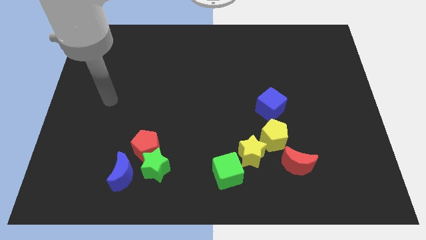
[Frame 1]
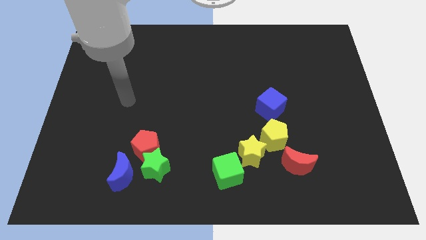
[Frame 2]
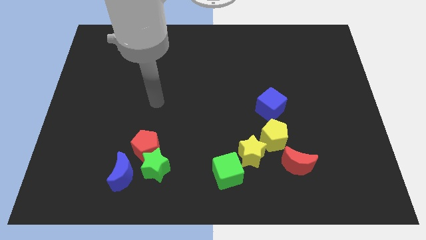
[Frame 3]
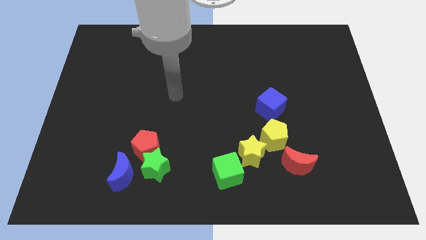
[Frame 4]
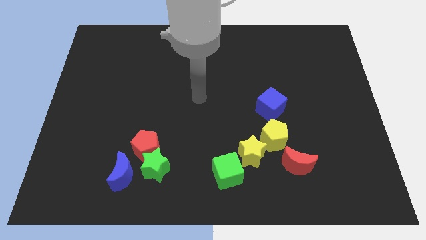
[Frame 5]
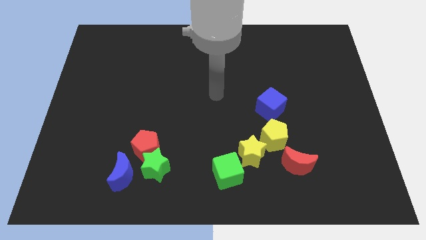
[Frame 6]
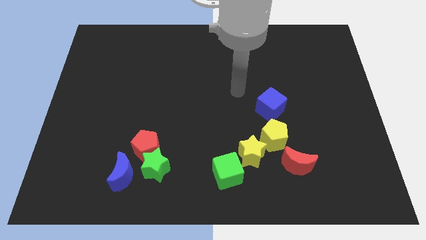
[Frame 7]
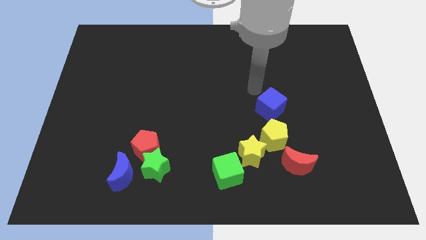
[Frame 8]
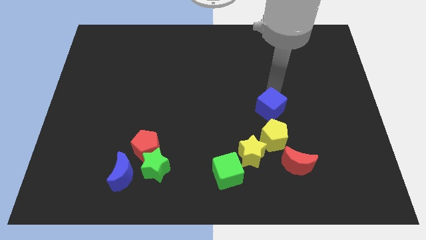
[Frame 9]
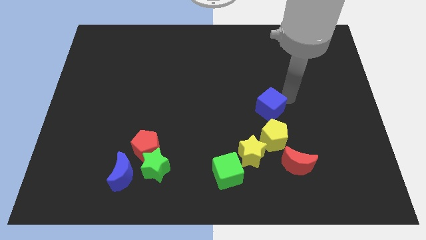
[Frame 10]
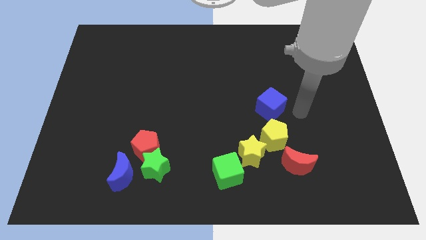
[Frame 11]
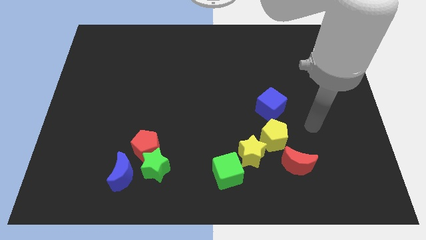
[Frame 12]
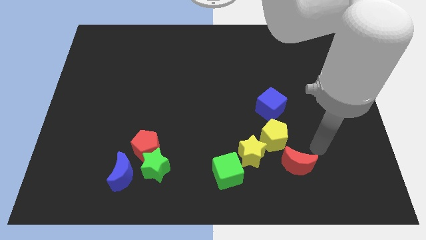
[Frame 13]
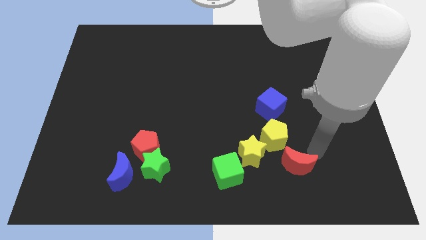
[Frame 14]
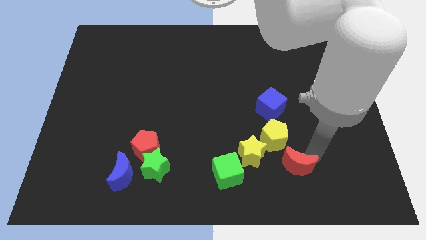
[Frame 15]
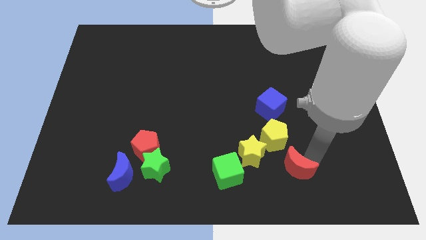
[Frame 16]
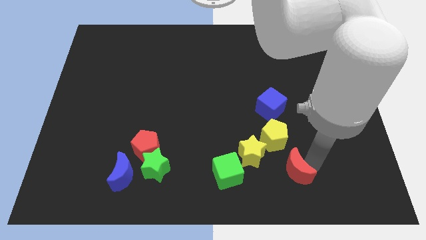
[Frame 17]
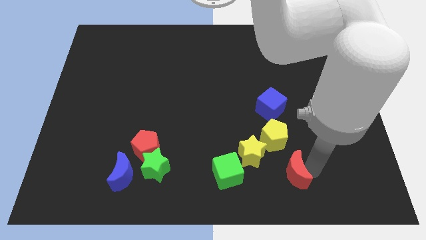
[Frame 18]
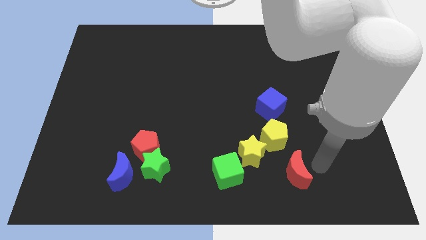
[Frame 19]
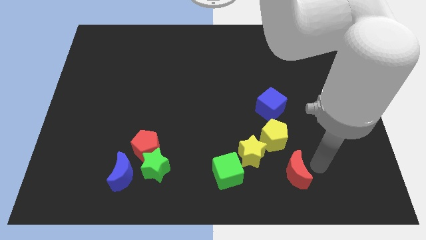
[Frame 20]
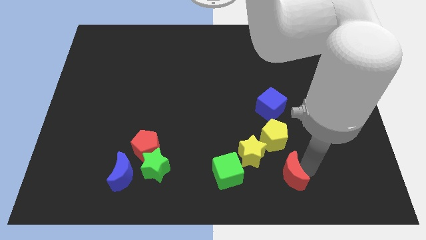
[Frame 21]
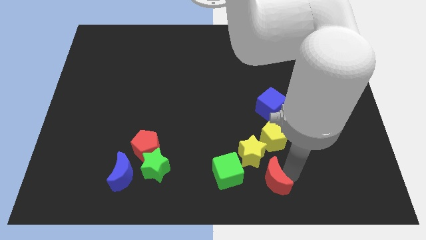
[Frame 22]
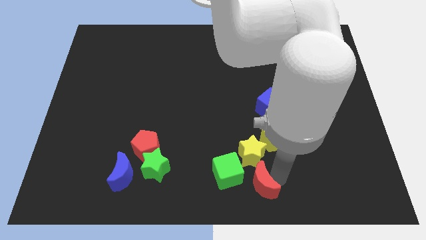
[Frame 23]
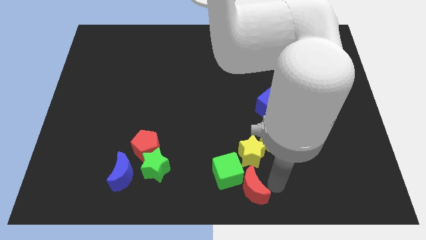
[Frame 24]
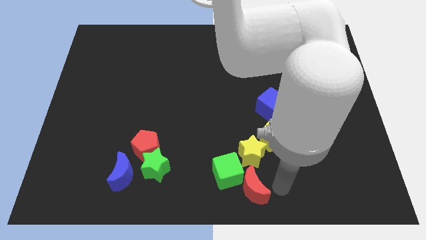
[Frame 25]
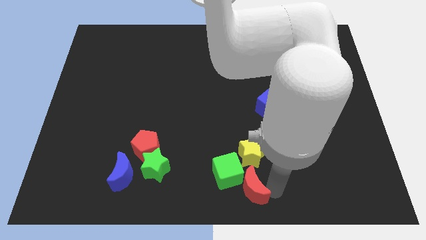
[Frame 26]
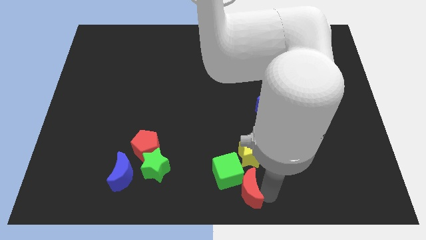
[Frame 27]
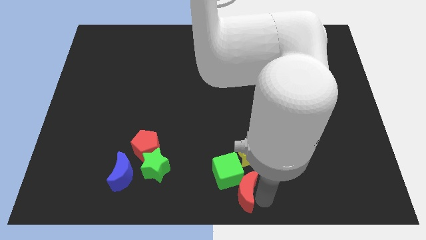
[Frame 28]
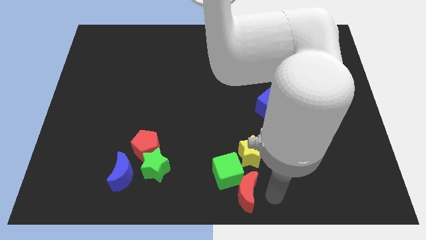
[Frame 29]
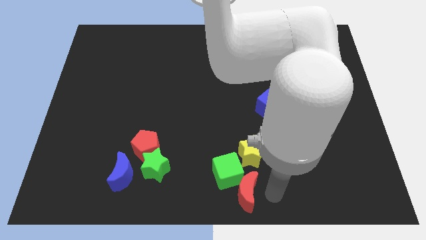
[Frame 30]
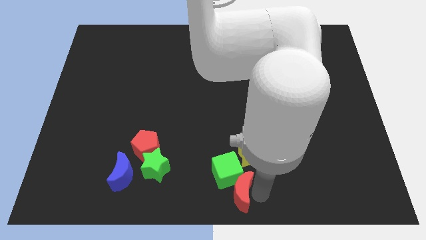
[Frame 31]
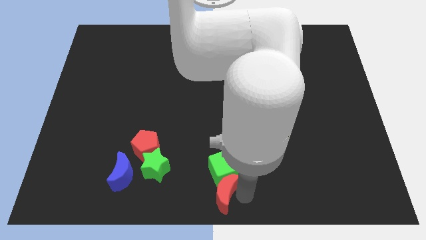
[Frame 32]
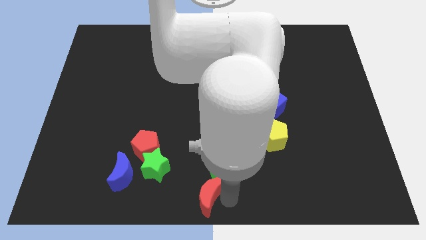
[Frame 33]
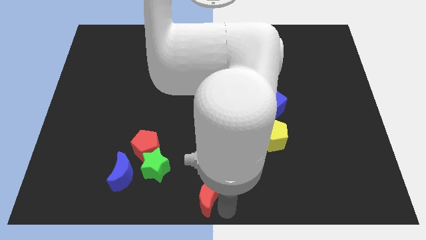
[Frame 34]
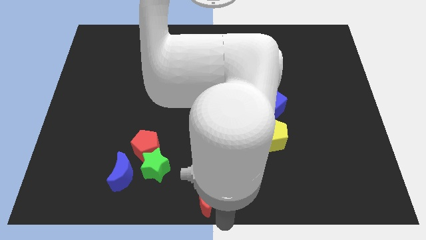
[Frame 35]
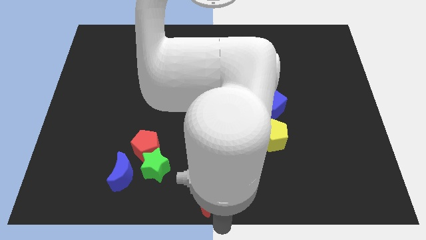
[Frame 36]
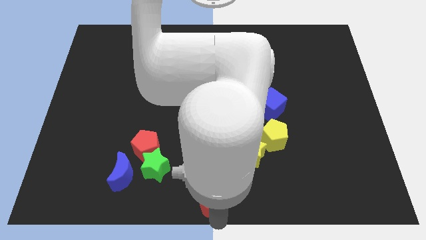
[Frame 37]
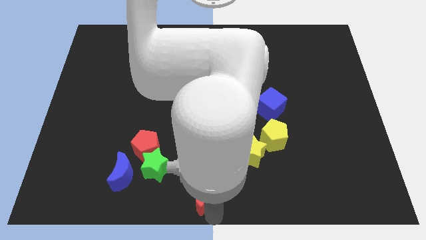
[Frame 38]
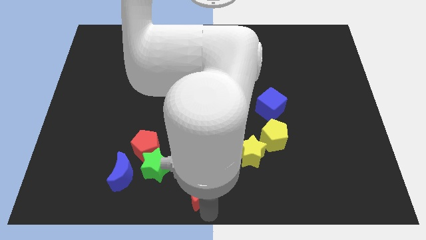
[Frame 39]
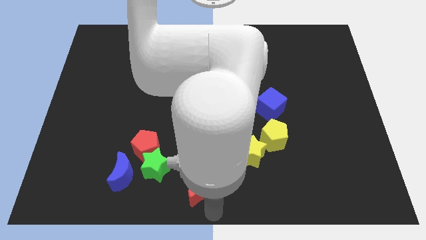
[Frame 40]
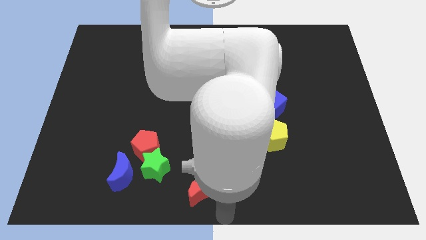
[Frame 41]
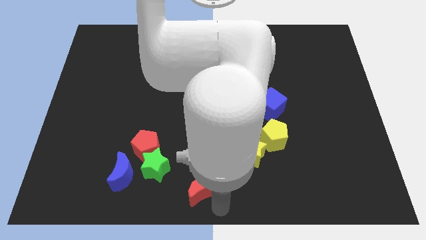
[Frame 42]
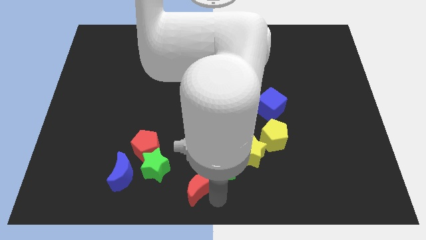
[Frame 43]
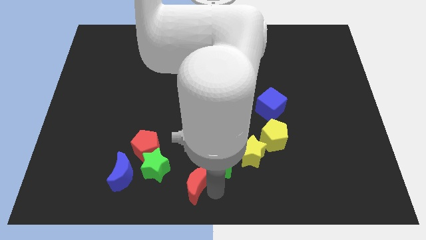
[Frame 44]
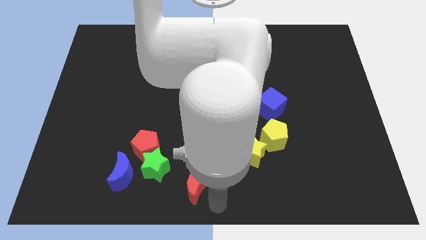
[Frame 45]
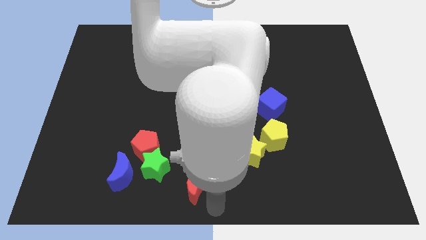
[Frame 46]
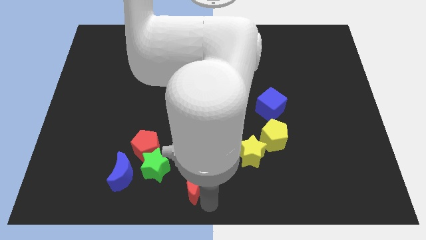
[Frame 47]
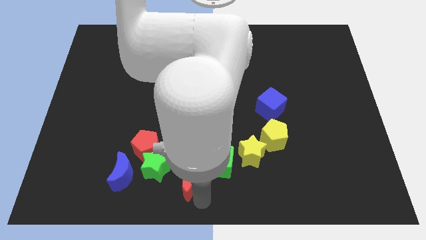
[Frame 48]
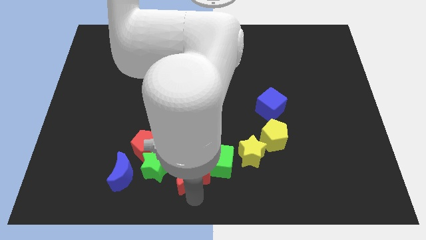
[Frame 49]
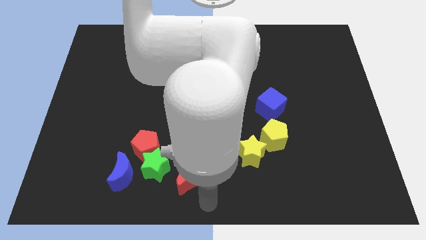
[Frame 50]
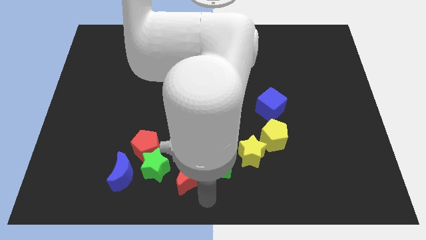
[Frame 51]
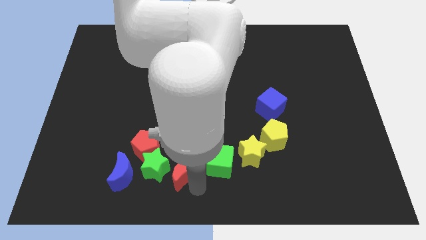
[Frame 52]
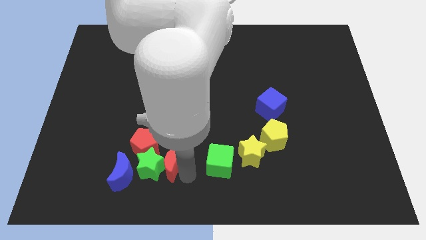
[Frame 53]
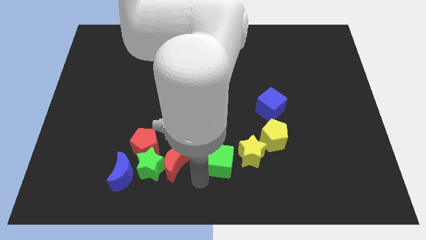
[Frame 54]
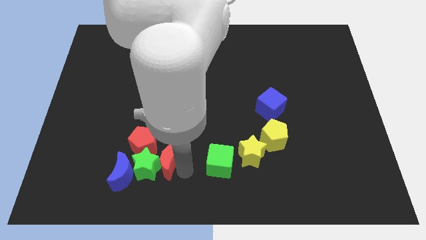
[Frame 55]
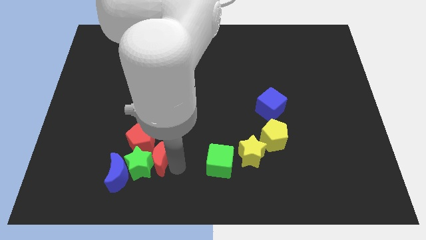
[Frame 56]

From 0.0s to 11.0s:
move the red moon towards the red pentagon

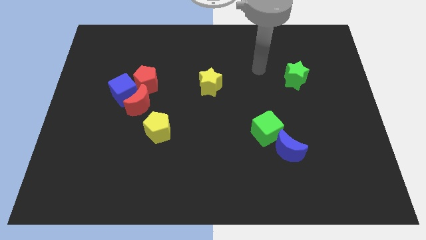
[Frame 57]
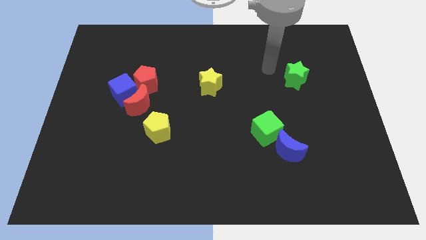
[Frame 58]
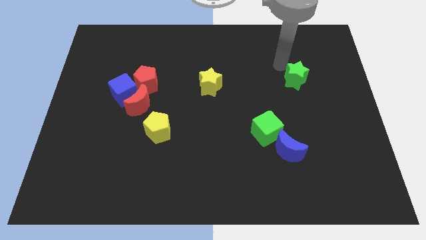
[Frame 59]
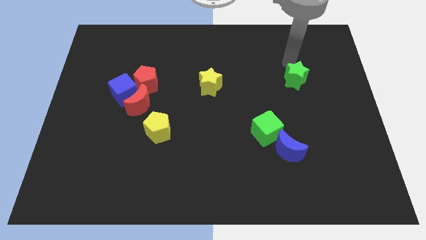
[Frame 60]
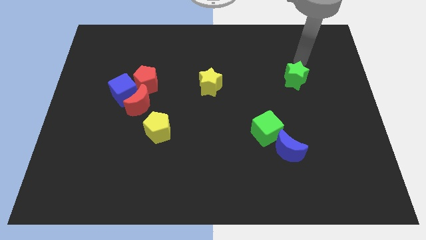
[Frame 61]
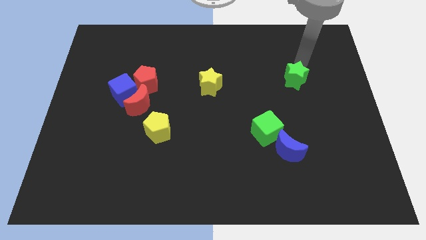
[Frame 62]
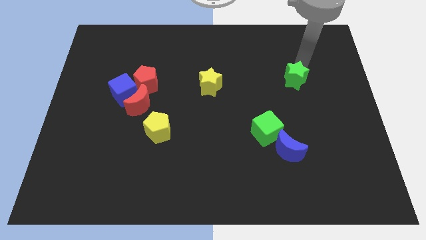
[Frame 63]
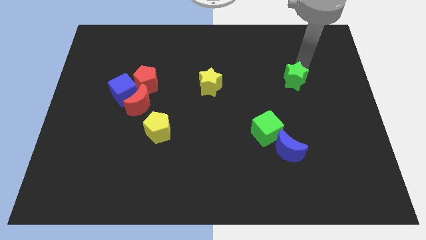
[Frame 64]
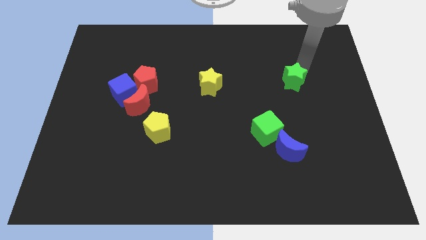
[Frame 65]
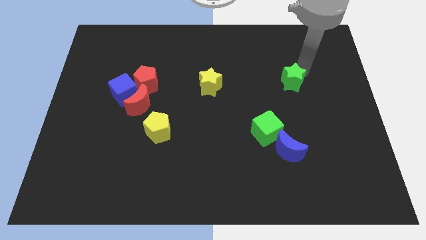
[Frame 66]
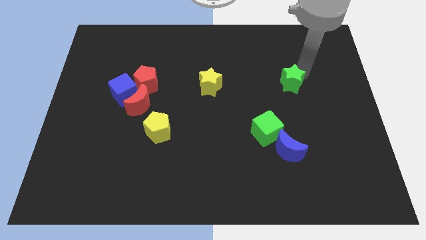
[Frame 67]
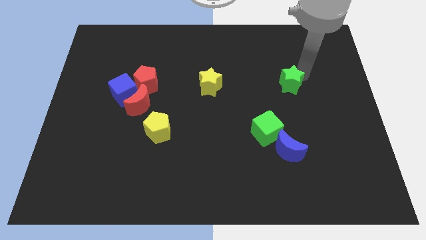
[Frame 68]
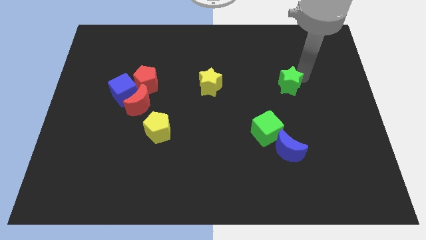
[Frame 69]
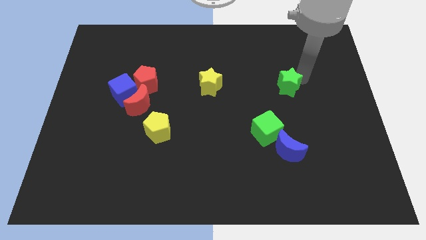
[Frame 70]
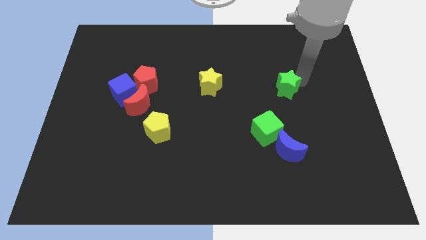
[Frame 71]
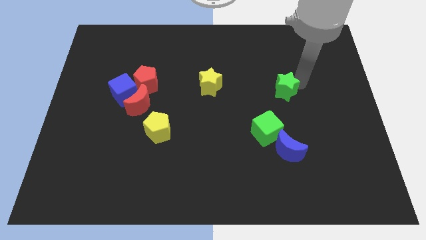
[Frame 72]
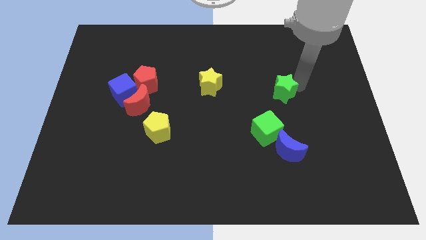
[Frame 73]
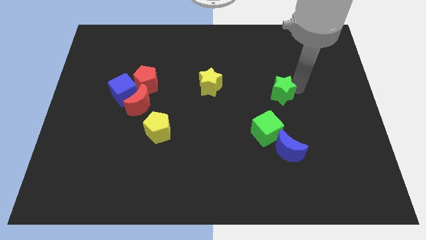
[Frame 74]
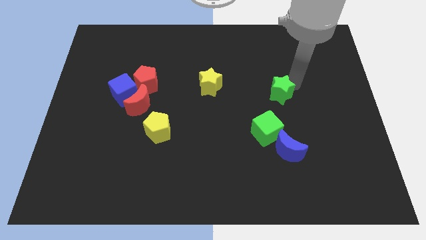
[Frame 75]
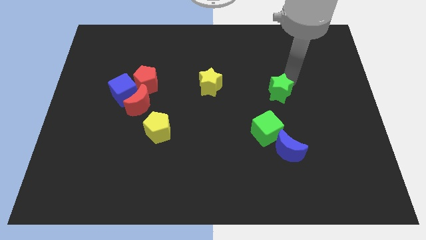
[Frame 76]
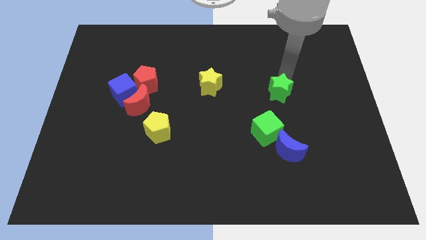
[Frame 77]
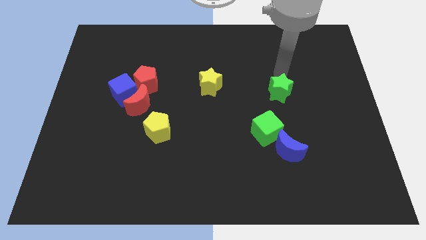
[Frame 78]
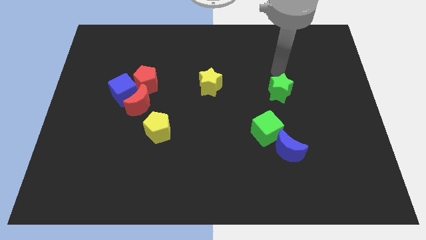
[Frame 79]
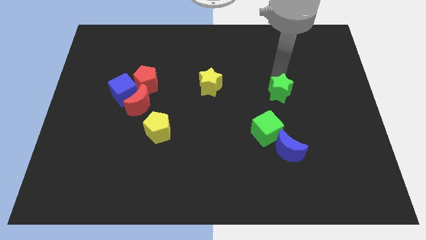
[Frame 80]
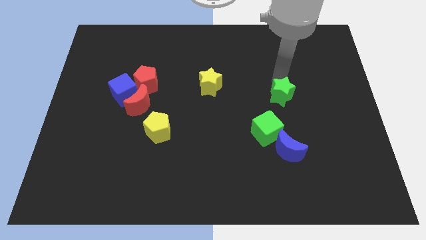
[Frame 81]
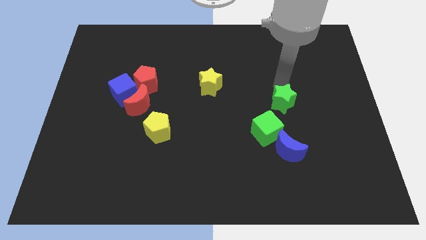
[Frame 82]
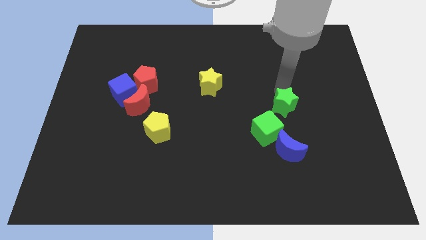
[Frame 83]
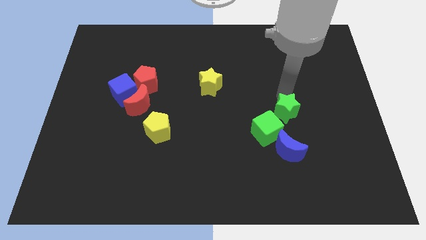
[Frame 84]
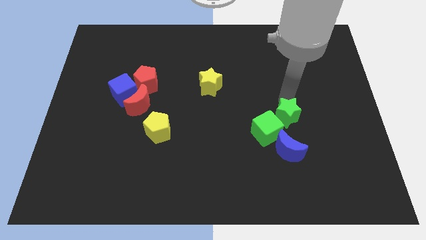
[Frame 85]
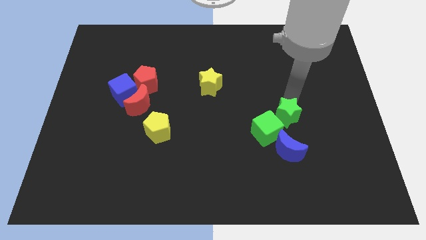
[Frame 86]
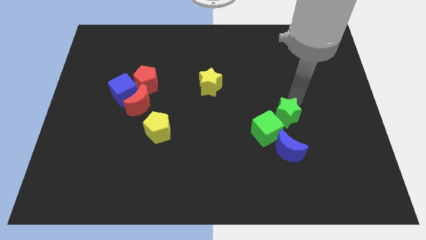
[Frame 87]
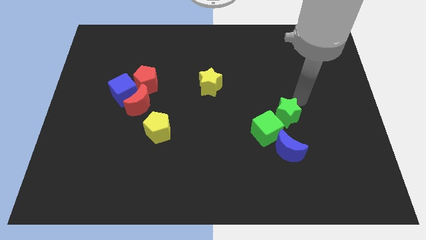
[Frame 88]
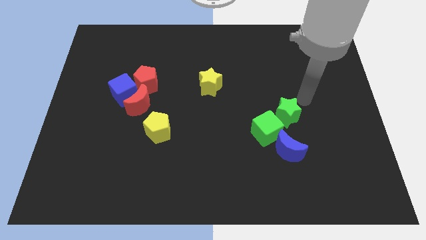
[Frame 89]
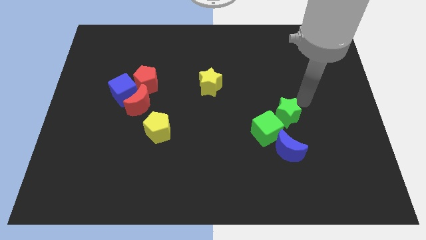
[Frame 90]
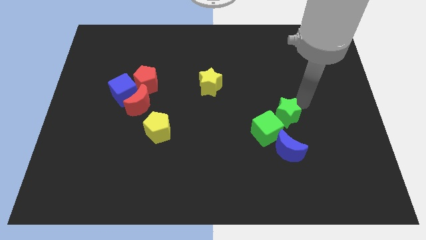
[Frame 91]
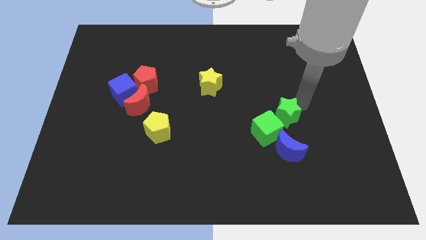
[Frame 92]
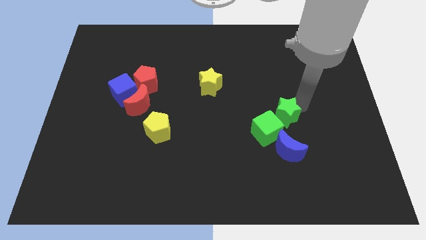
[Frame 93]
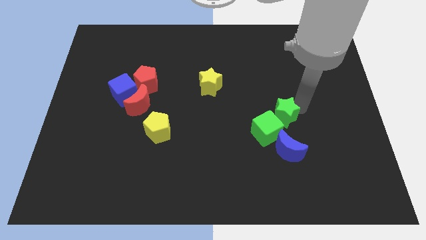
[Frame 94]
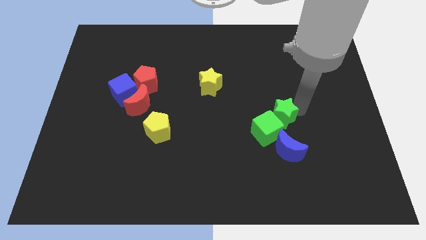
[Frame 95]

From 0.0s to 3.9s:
push the green star next to the green cube
